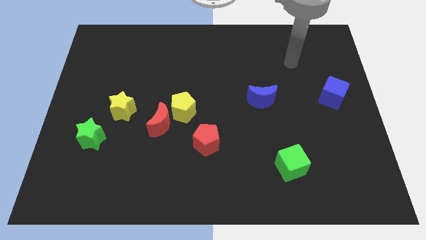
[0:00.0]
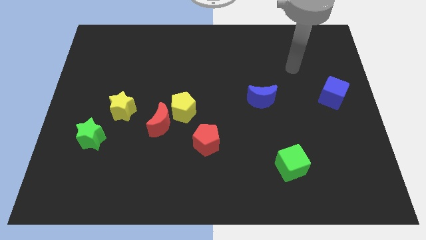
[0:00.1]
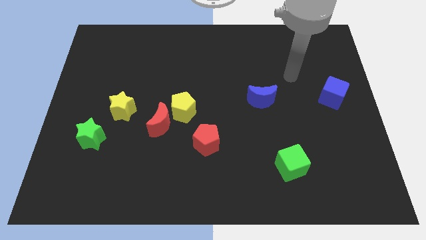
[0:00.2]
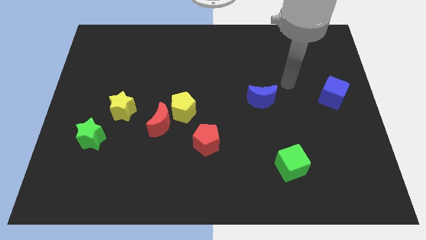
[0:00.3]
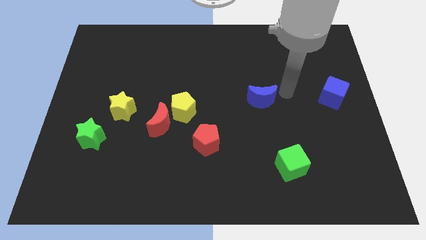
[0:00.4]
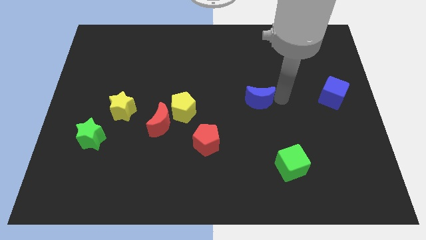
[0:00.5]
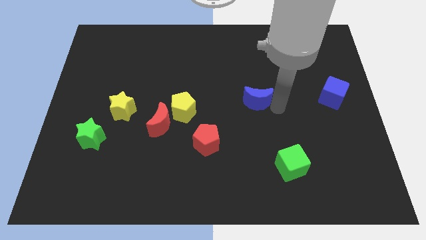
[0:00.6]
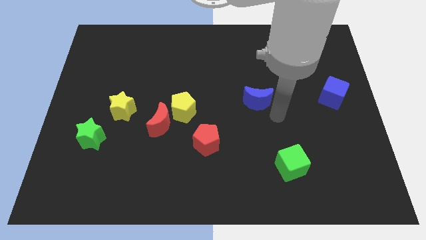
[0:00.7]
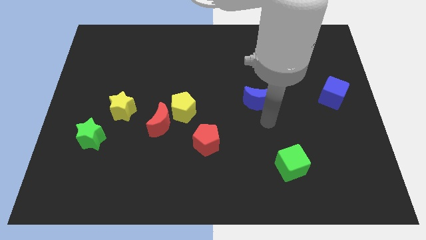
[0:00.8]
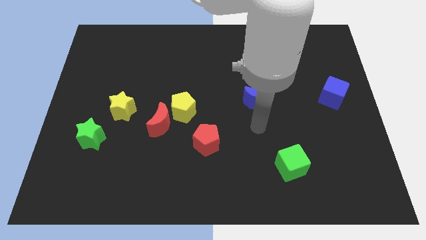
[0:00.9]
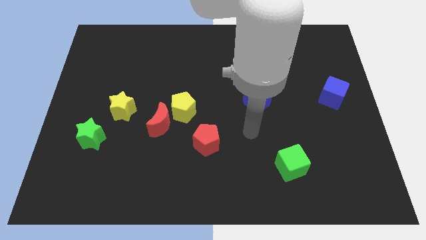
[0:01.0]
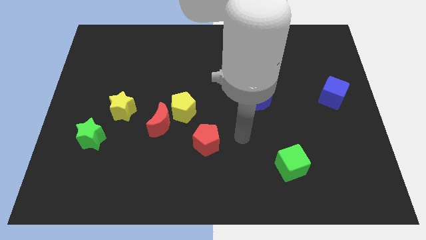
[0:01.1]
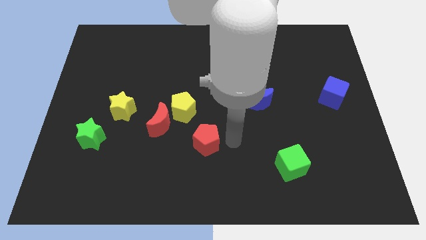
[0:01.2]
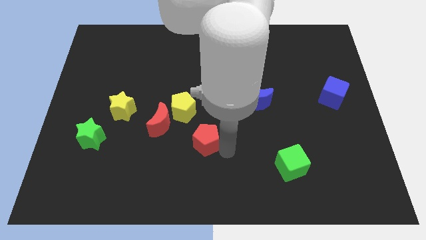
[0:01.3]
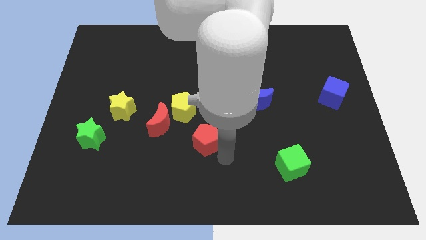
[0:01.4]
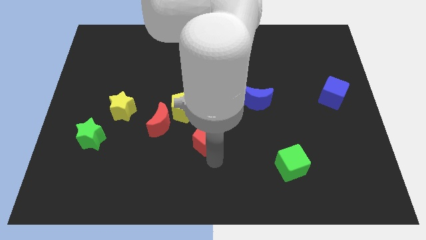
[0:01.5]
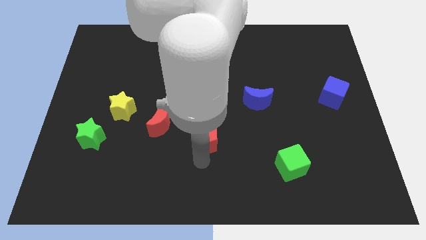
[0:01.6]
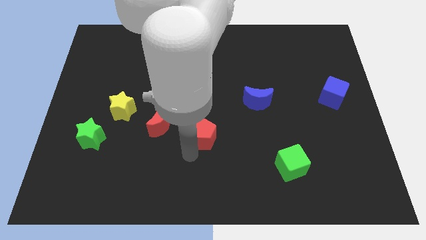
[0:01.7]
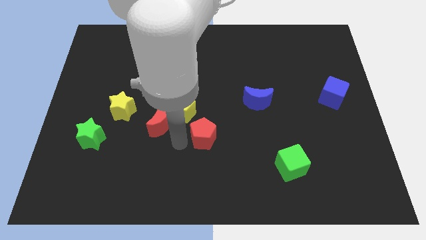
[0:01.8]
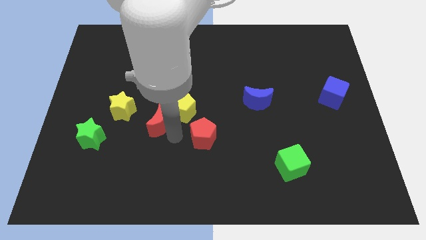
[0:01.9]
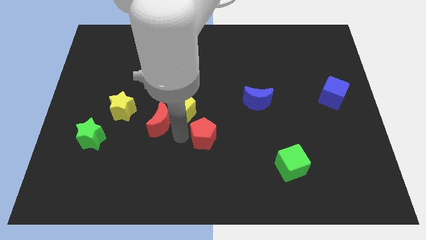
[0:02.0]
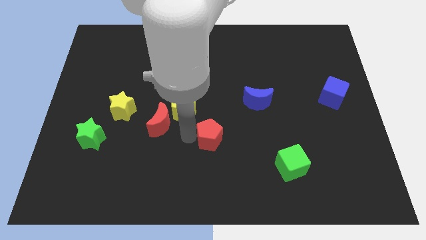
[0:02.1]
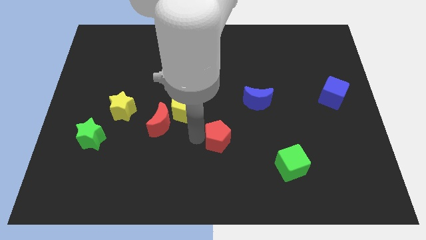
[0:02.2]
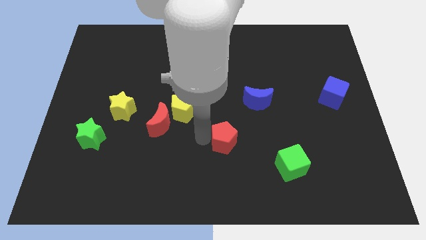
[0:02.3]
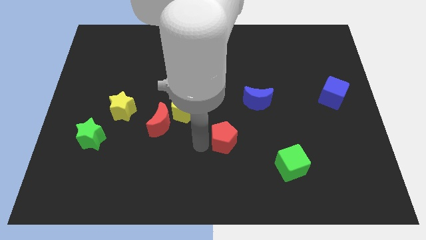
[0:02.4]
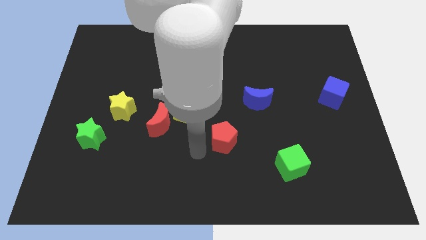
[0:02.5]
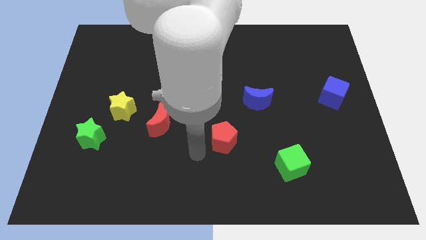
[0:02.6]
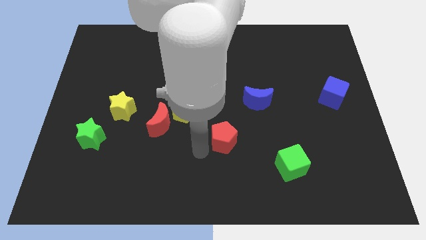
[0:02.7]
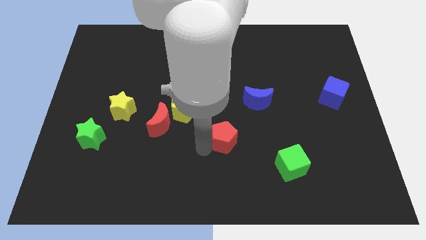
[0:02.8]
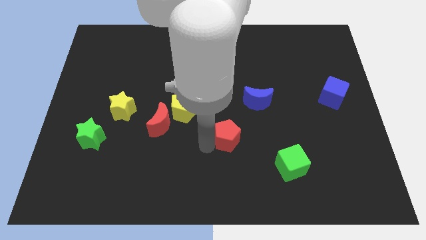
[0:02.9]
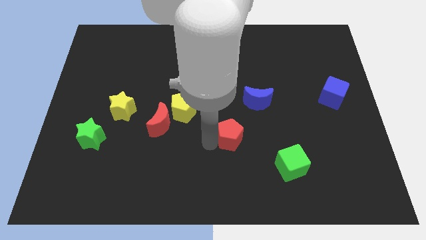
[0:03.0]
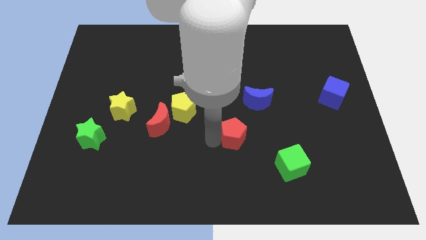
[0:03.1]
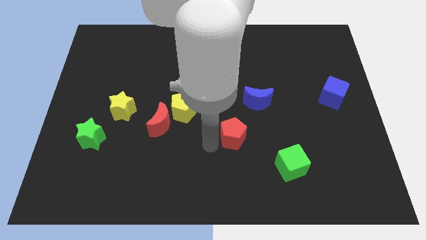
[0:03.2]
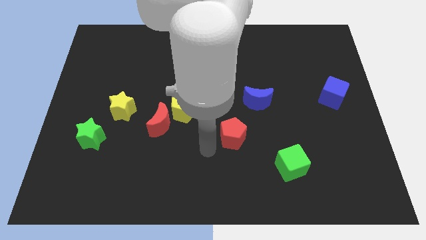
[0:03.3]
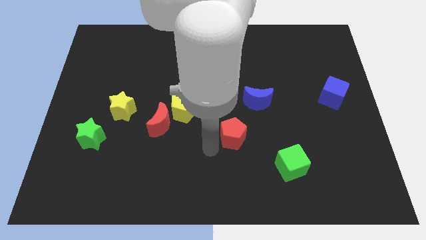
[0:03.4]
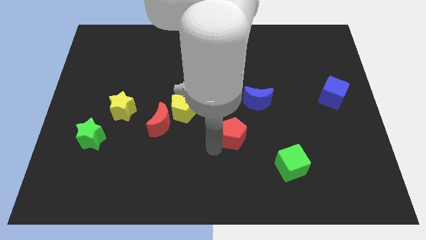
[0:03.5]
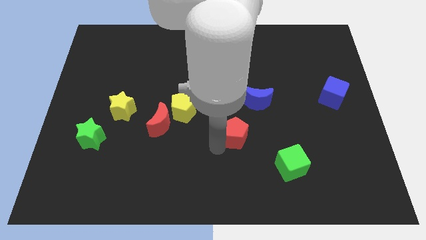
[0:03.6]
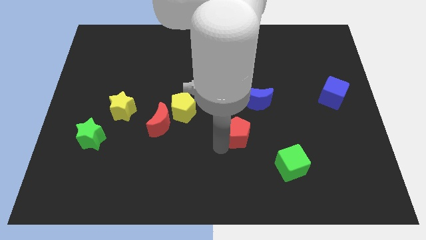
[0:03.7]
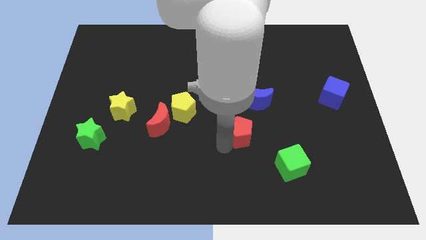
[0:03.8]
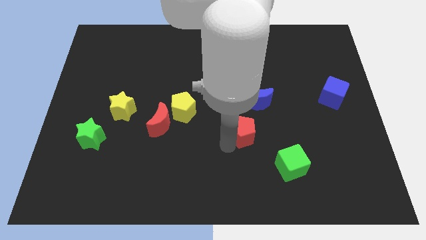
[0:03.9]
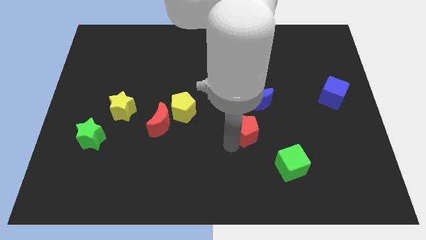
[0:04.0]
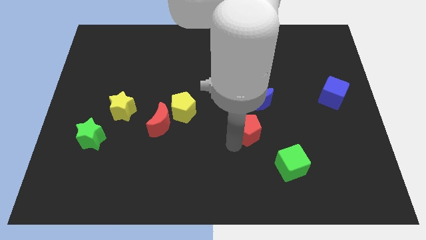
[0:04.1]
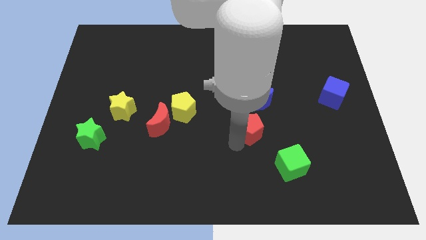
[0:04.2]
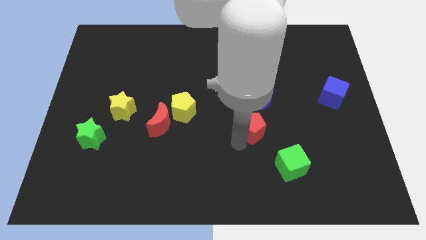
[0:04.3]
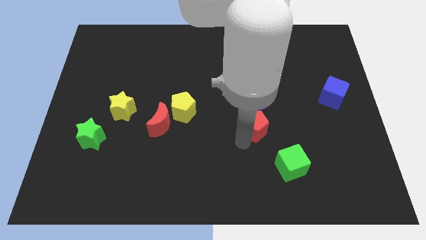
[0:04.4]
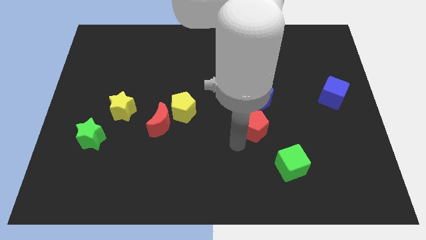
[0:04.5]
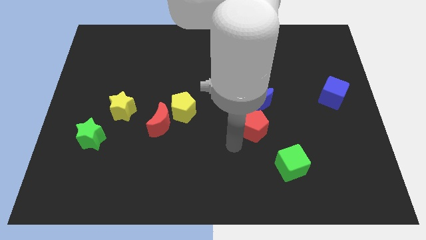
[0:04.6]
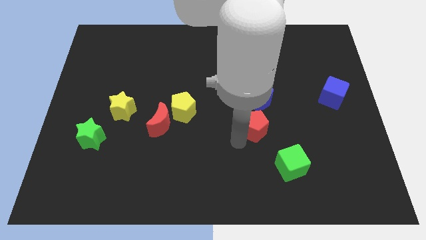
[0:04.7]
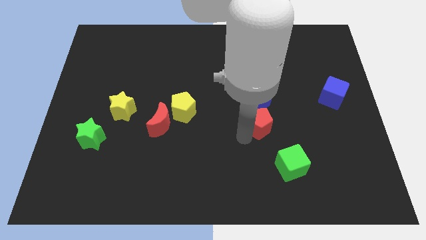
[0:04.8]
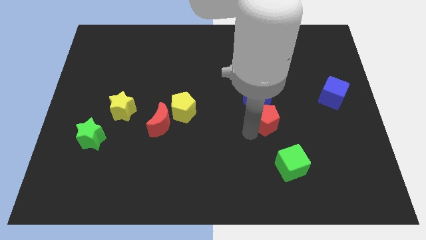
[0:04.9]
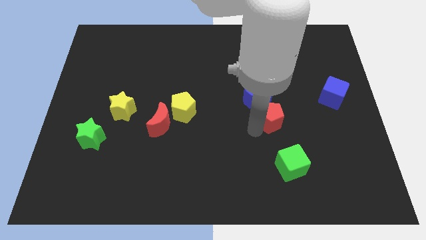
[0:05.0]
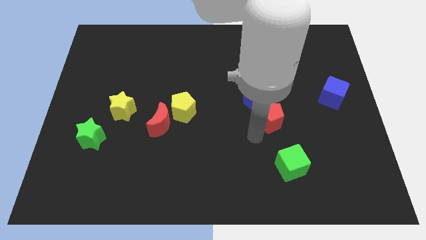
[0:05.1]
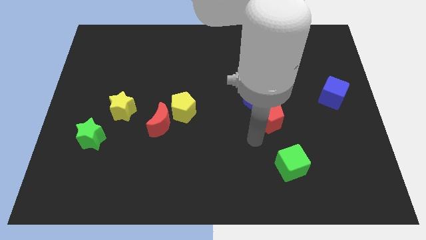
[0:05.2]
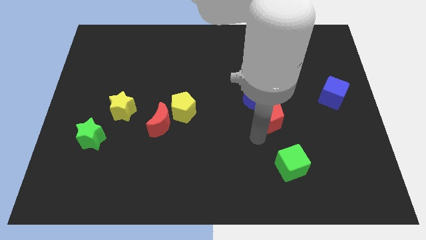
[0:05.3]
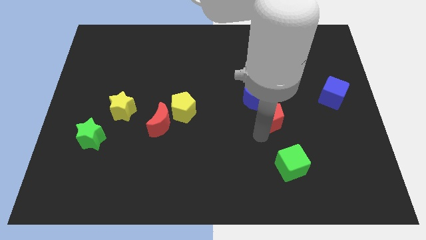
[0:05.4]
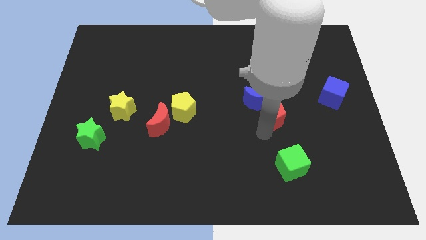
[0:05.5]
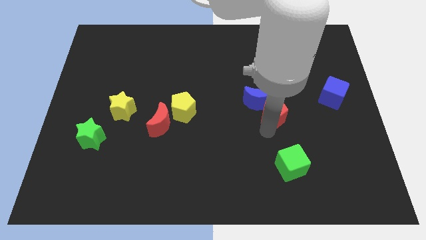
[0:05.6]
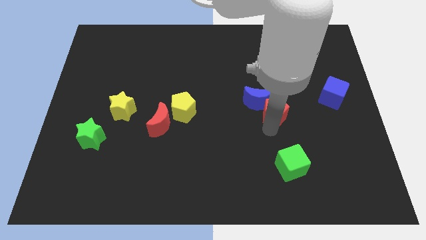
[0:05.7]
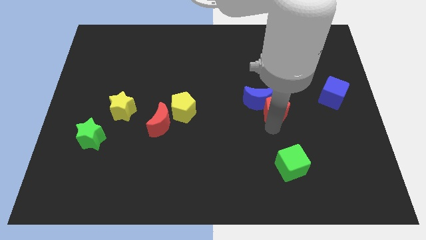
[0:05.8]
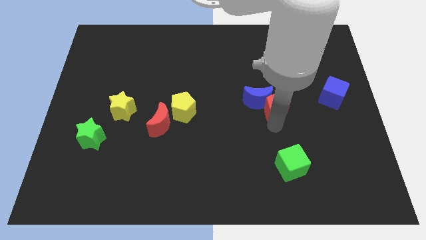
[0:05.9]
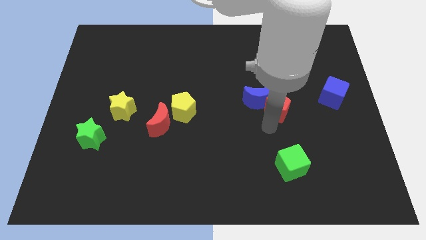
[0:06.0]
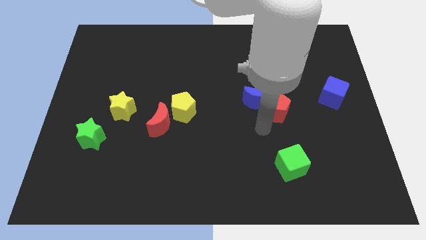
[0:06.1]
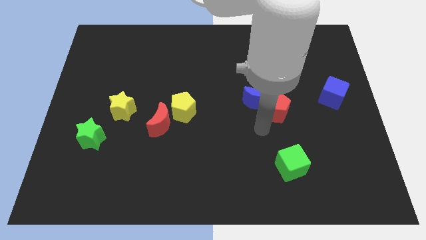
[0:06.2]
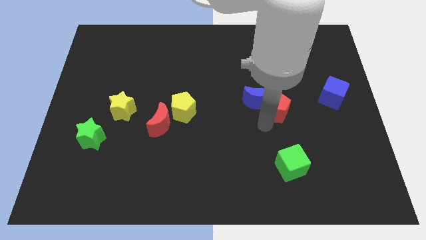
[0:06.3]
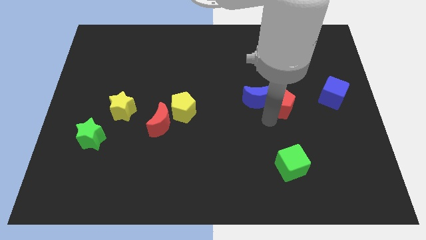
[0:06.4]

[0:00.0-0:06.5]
push the red pentagon to the left of the blue cube
